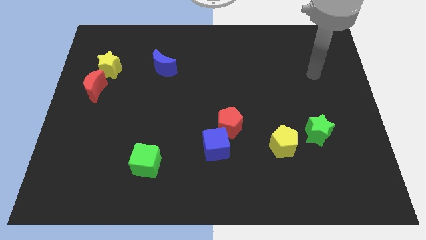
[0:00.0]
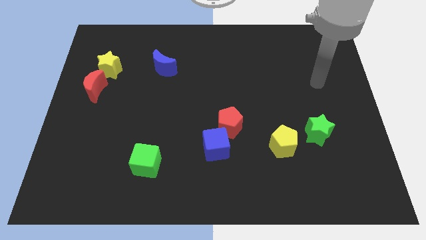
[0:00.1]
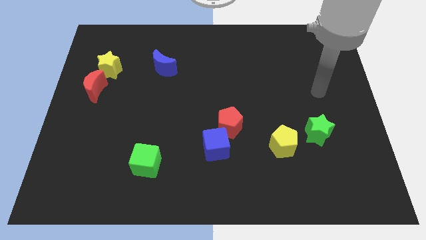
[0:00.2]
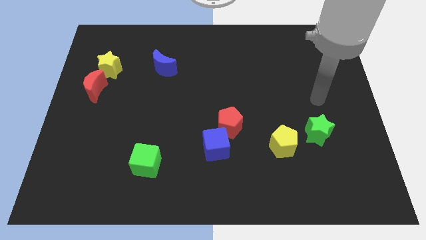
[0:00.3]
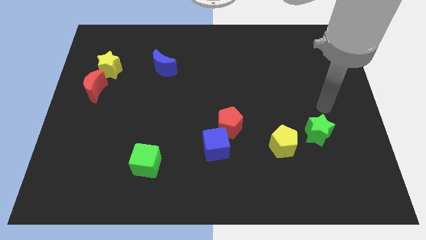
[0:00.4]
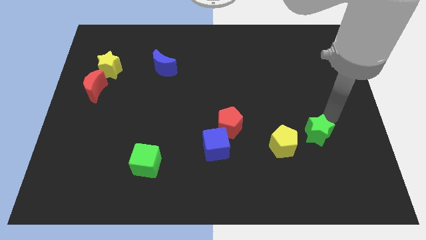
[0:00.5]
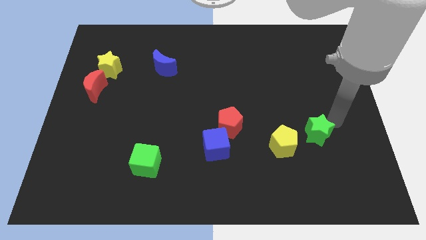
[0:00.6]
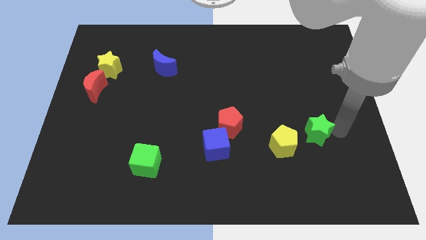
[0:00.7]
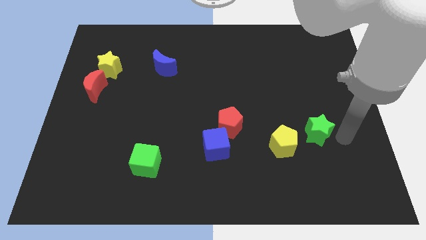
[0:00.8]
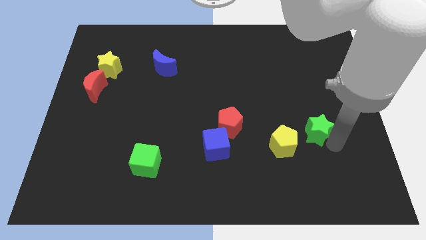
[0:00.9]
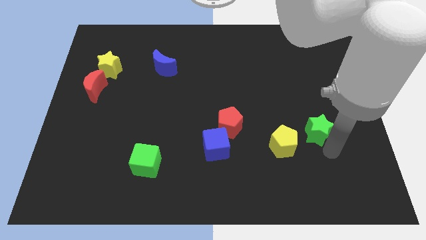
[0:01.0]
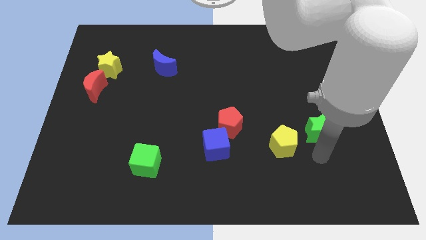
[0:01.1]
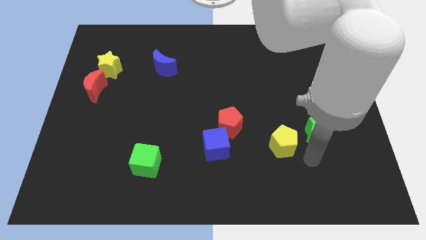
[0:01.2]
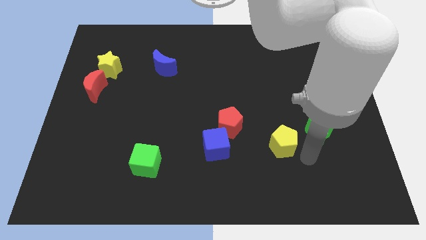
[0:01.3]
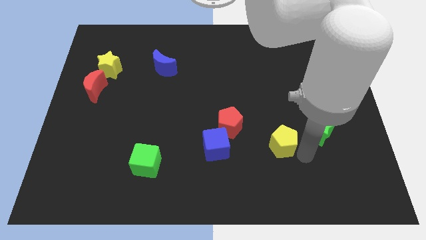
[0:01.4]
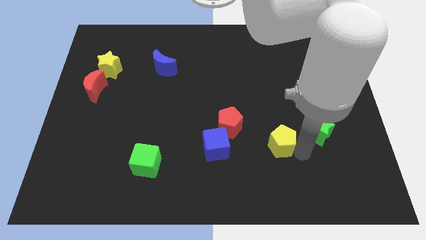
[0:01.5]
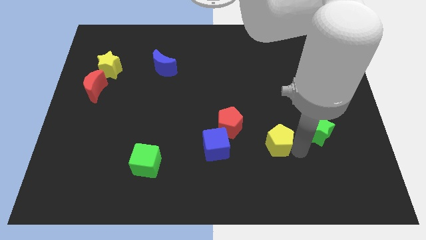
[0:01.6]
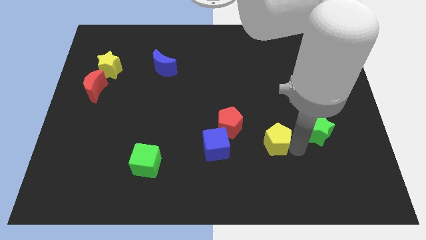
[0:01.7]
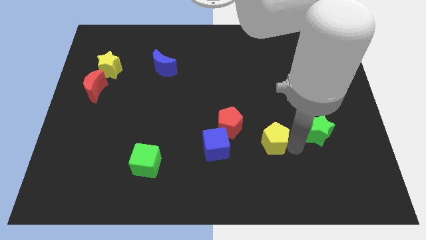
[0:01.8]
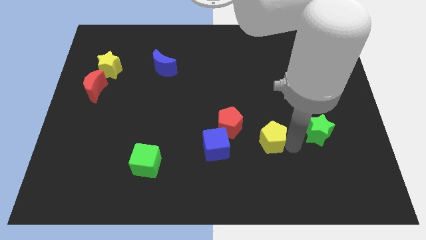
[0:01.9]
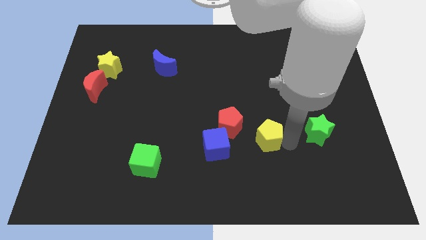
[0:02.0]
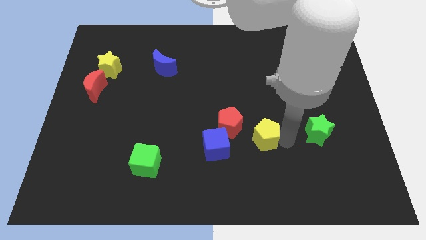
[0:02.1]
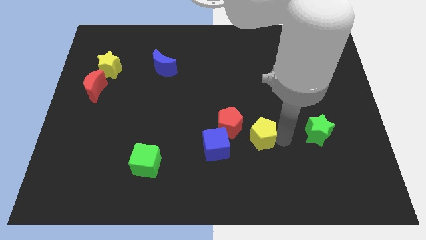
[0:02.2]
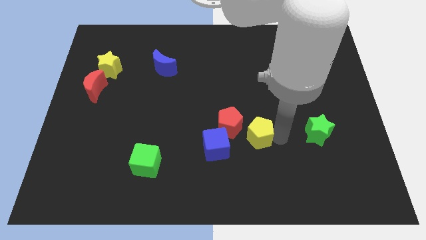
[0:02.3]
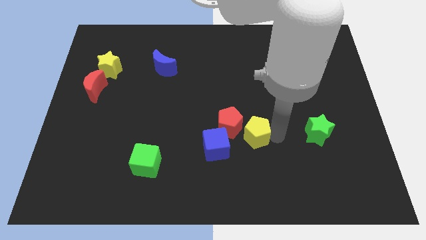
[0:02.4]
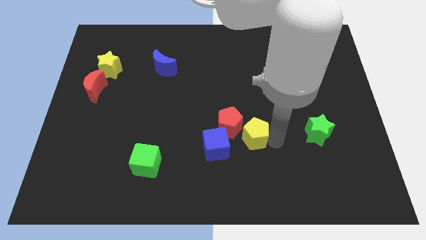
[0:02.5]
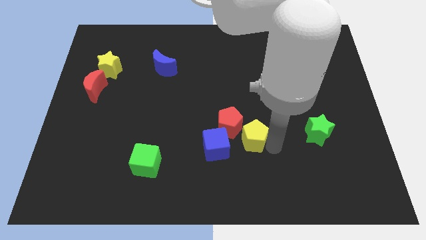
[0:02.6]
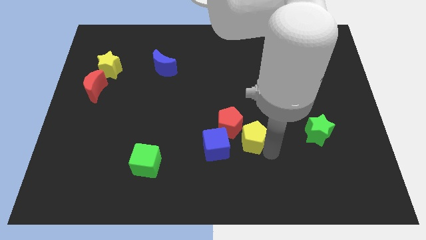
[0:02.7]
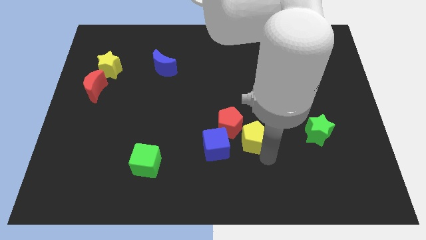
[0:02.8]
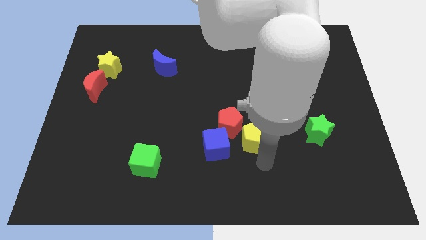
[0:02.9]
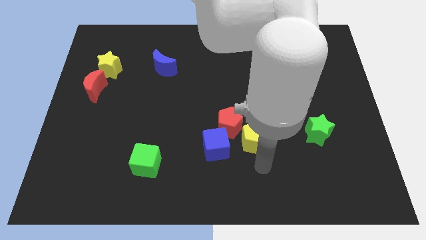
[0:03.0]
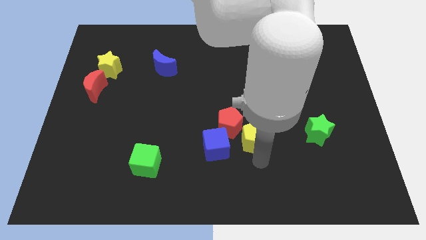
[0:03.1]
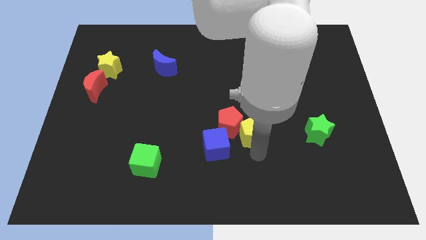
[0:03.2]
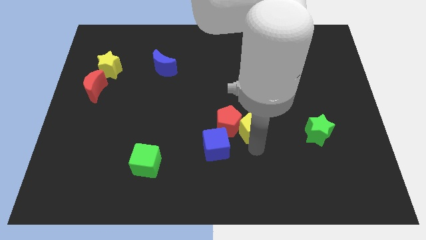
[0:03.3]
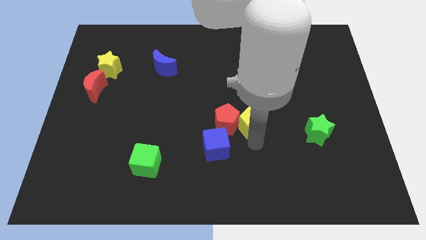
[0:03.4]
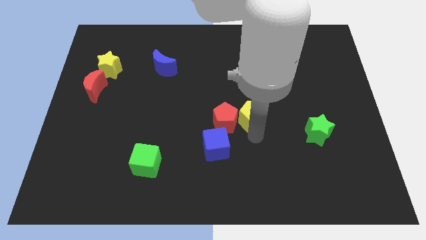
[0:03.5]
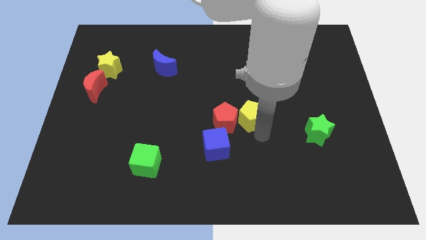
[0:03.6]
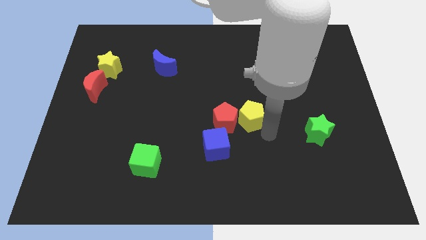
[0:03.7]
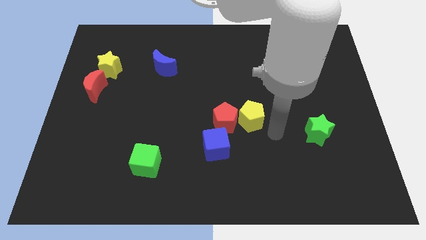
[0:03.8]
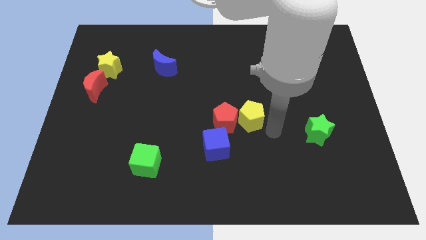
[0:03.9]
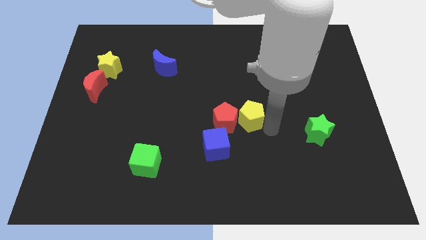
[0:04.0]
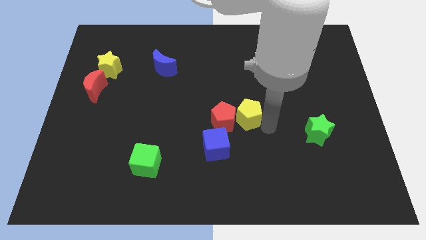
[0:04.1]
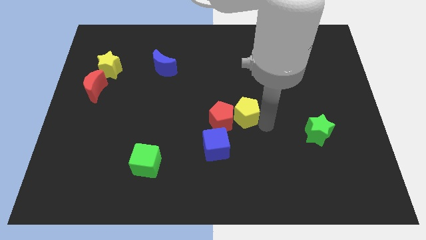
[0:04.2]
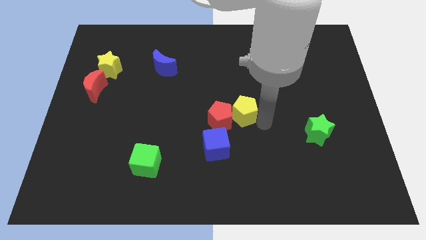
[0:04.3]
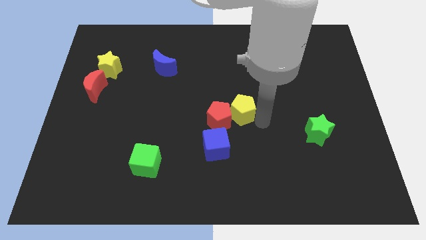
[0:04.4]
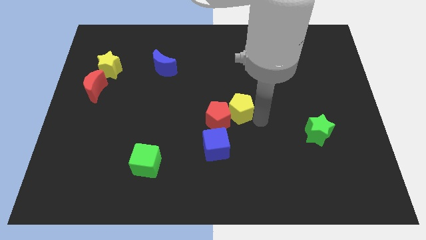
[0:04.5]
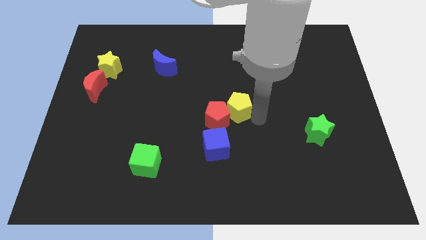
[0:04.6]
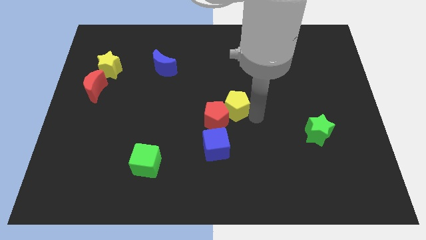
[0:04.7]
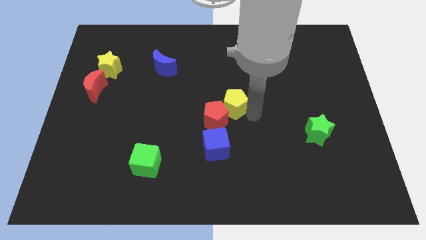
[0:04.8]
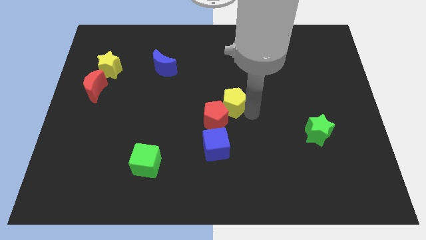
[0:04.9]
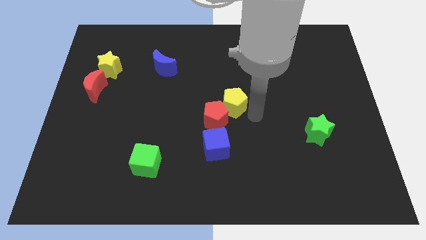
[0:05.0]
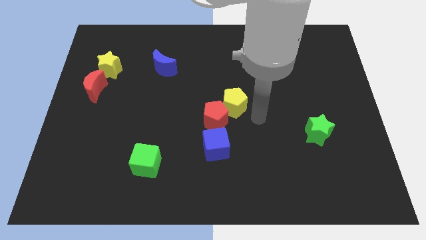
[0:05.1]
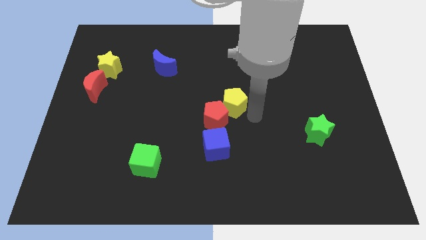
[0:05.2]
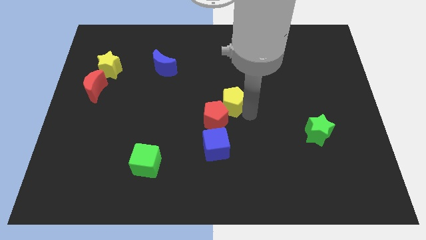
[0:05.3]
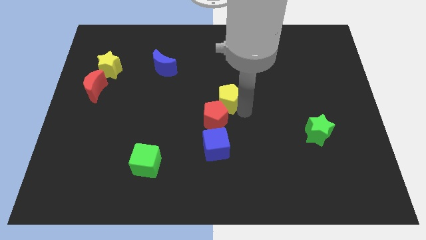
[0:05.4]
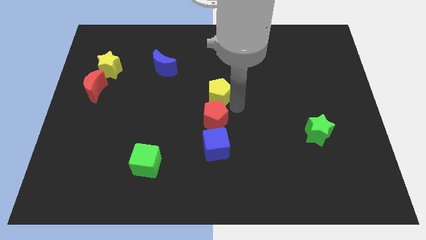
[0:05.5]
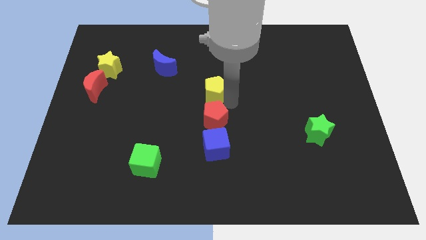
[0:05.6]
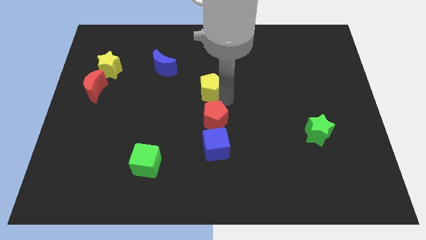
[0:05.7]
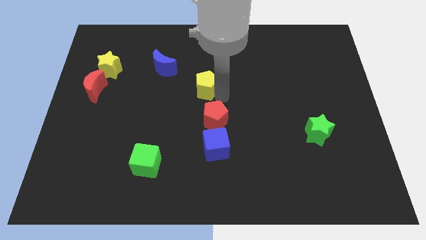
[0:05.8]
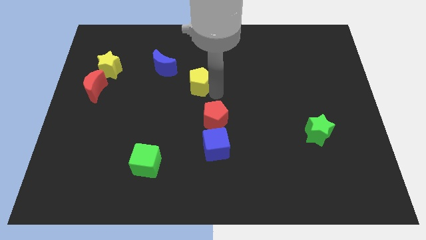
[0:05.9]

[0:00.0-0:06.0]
put the yellow pentagon diagonally down and to the right of the blue moon
